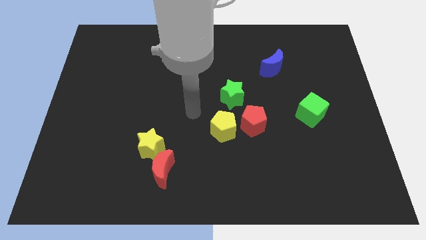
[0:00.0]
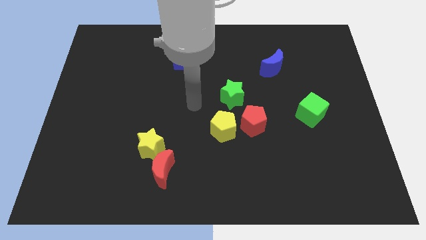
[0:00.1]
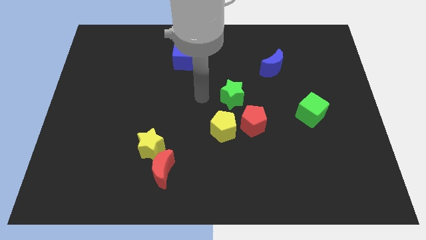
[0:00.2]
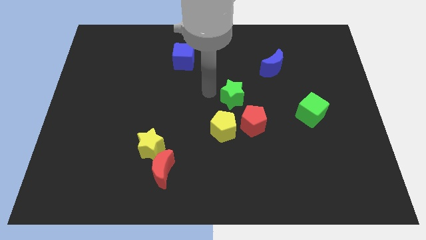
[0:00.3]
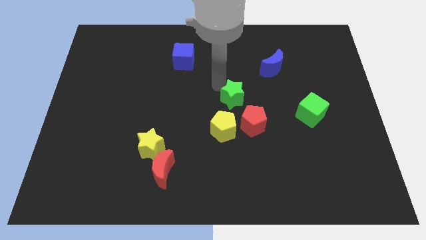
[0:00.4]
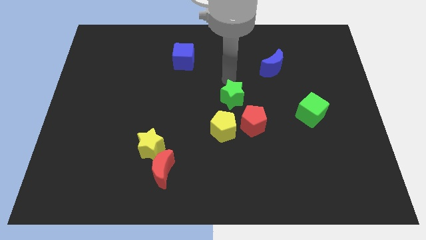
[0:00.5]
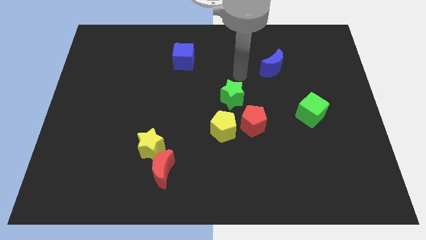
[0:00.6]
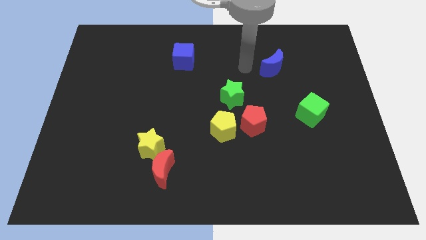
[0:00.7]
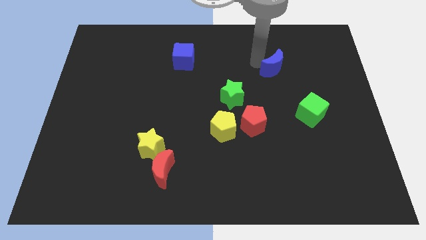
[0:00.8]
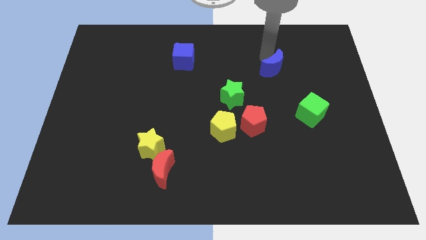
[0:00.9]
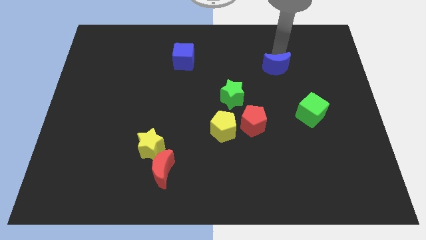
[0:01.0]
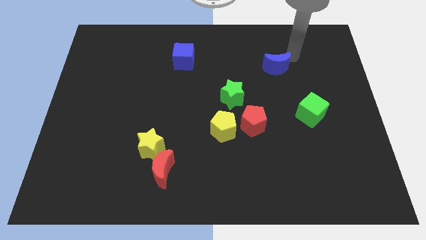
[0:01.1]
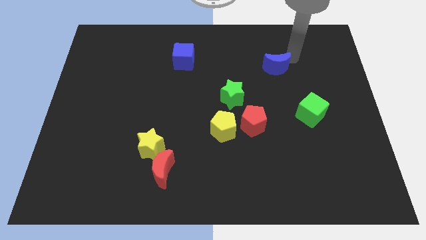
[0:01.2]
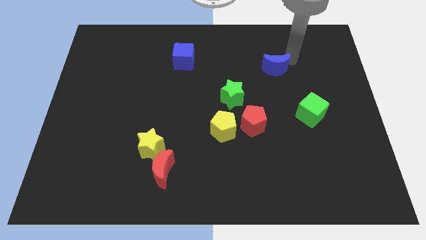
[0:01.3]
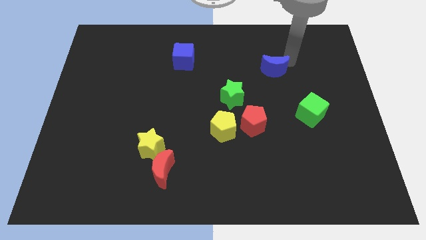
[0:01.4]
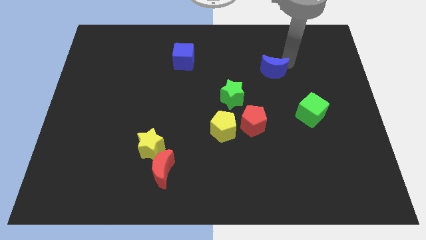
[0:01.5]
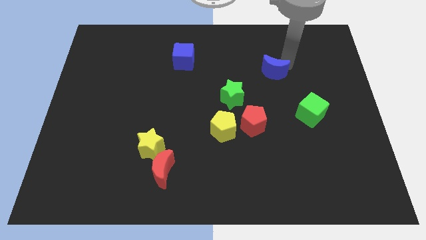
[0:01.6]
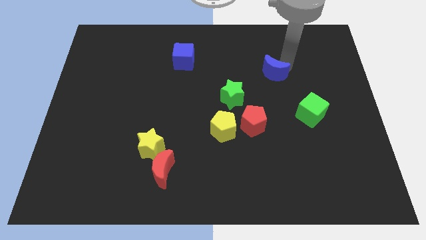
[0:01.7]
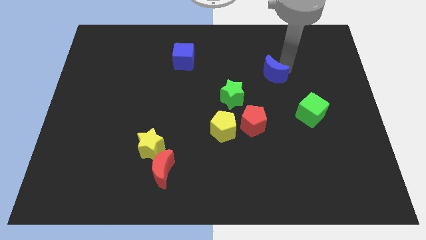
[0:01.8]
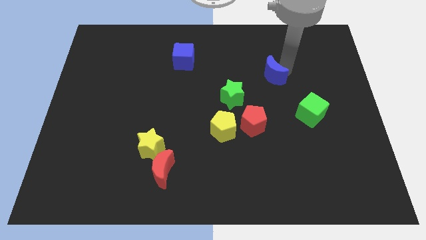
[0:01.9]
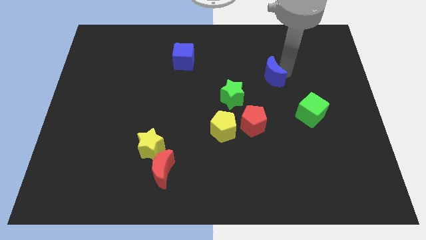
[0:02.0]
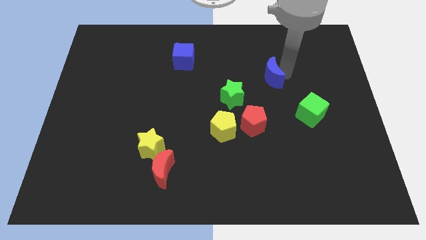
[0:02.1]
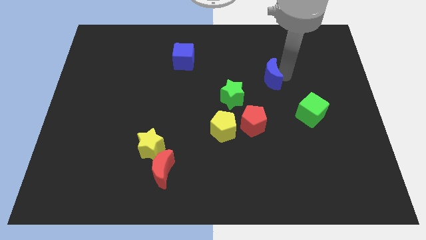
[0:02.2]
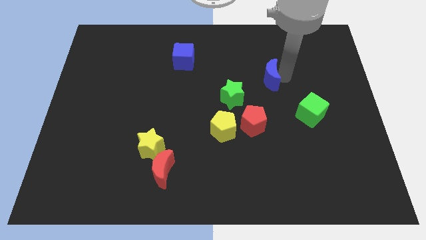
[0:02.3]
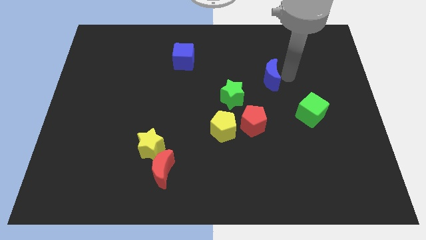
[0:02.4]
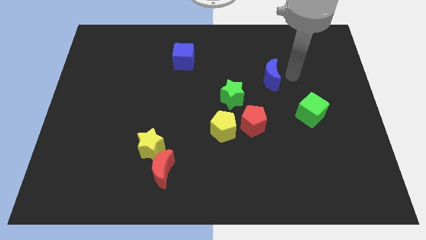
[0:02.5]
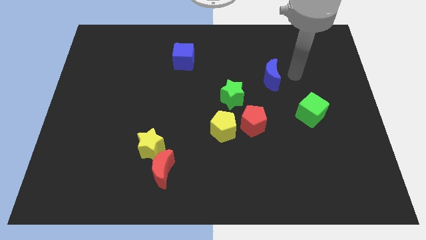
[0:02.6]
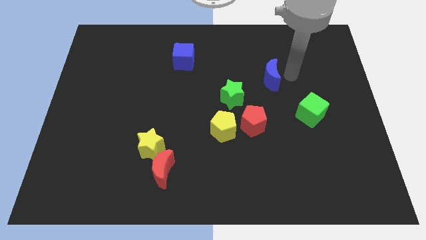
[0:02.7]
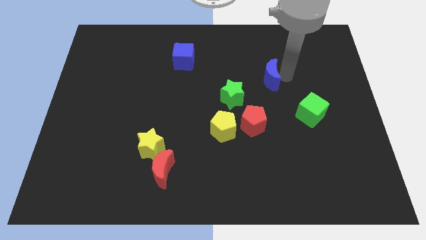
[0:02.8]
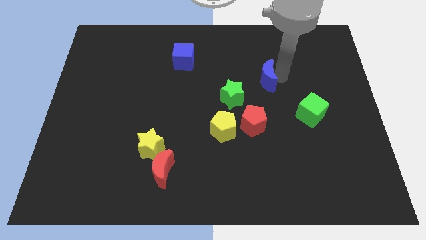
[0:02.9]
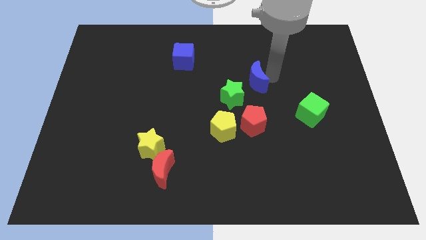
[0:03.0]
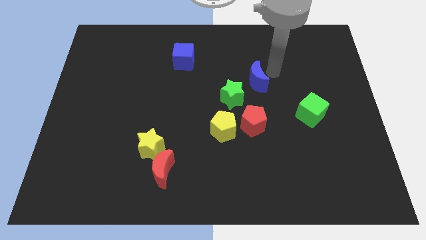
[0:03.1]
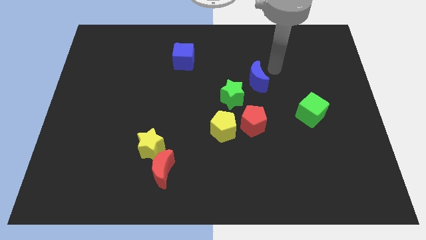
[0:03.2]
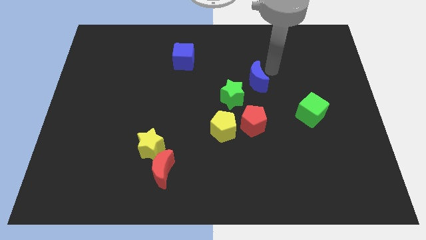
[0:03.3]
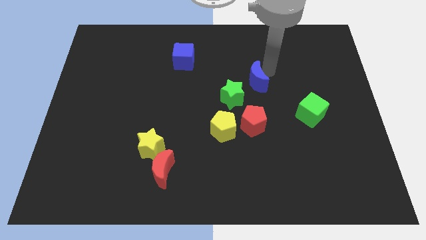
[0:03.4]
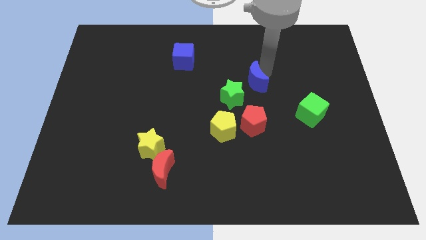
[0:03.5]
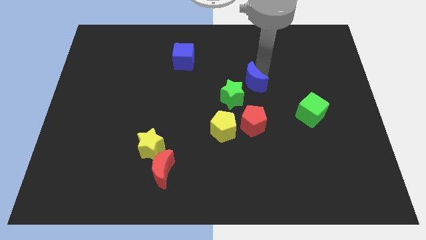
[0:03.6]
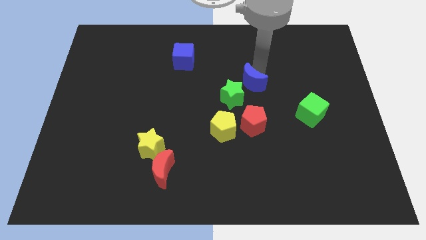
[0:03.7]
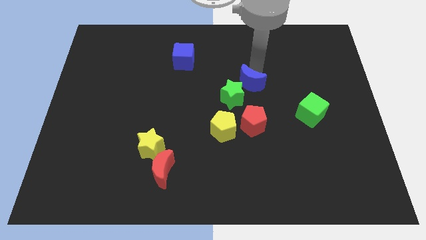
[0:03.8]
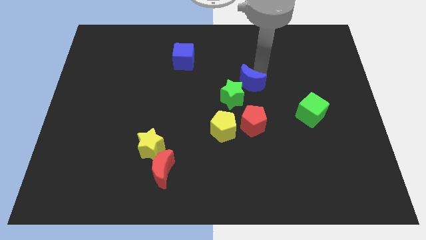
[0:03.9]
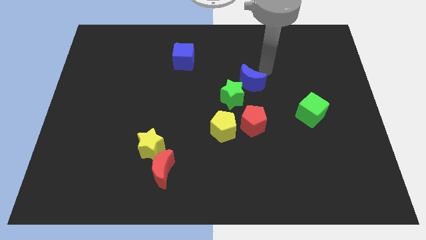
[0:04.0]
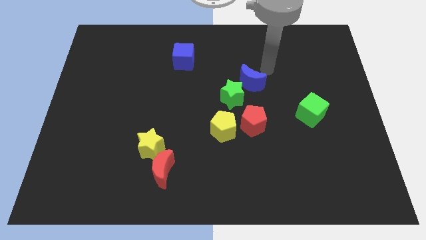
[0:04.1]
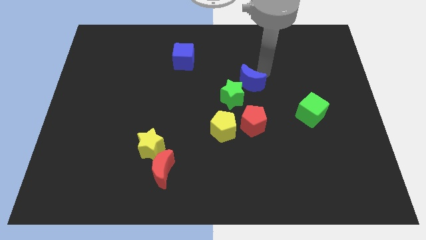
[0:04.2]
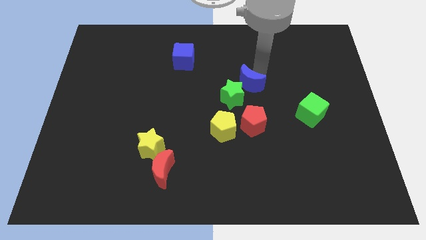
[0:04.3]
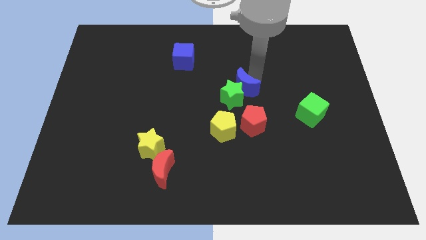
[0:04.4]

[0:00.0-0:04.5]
push the blue moon towards the green star

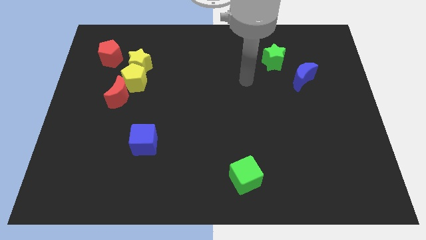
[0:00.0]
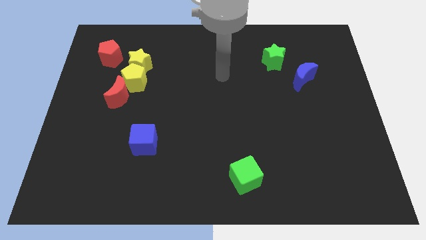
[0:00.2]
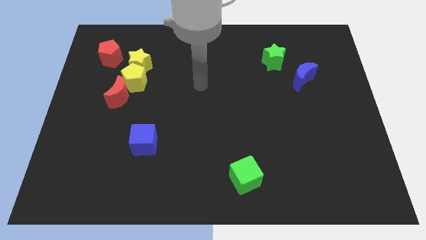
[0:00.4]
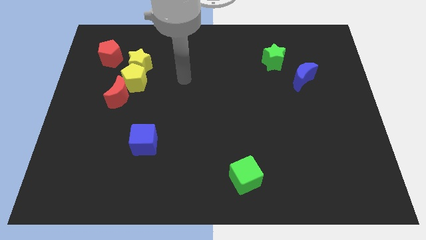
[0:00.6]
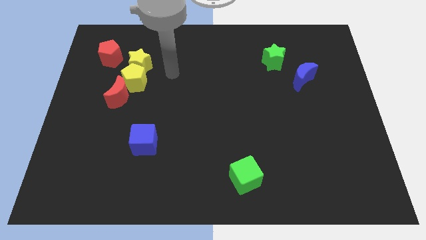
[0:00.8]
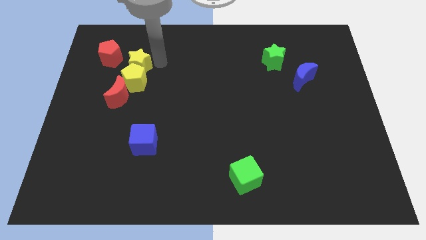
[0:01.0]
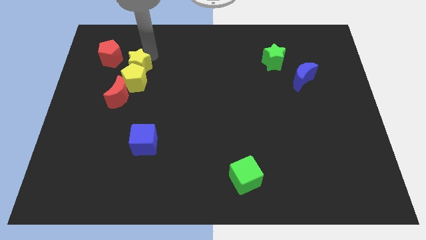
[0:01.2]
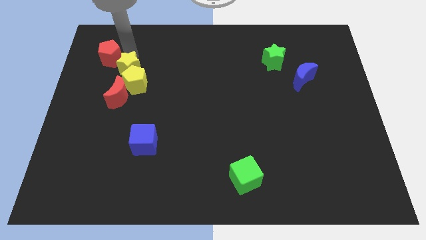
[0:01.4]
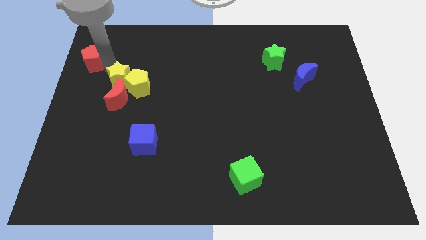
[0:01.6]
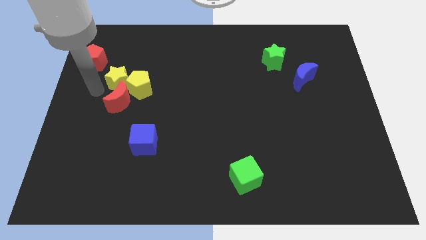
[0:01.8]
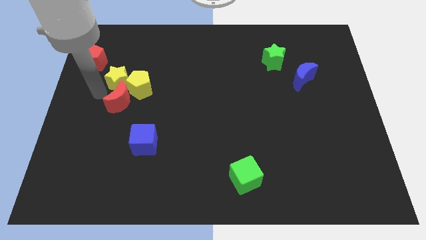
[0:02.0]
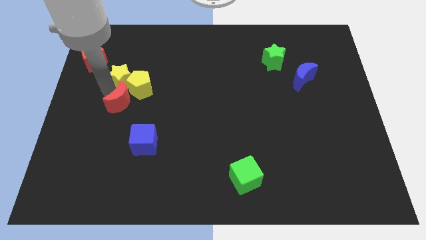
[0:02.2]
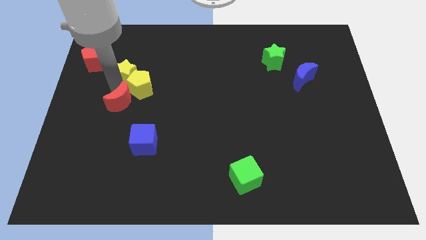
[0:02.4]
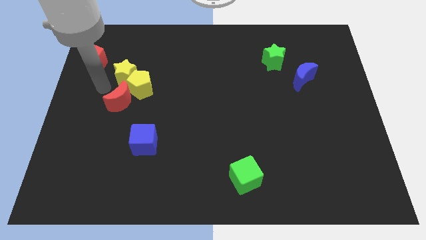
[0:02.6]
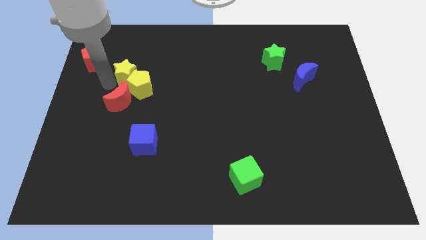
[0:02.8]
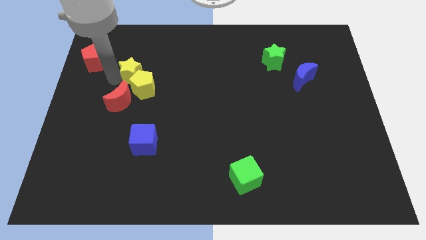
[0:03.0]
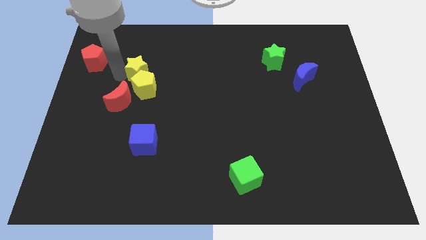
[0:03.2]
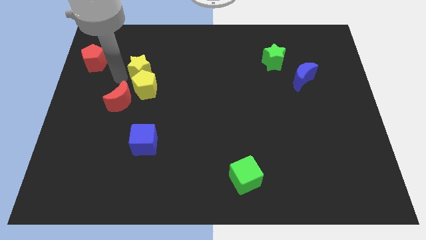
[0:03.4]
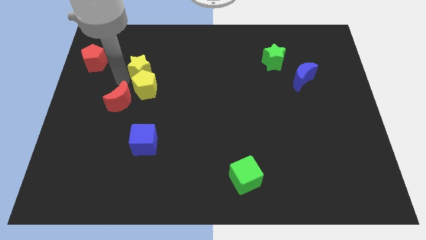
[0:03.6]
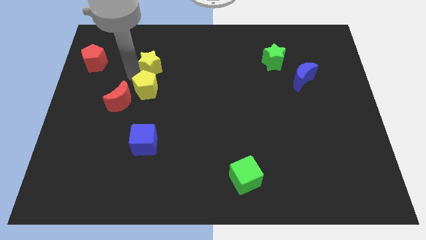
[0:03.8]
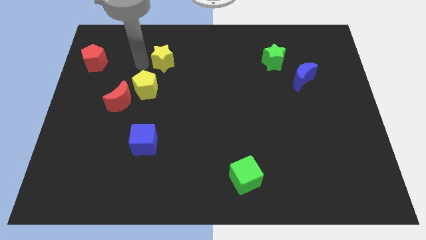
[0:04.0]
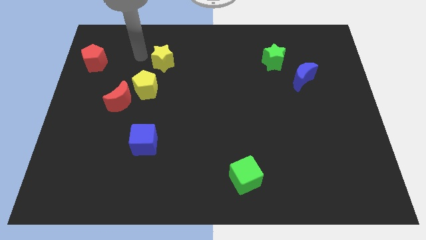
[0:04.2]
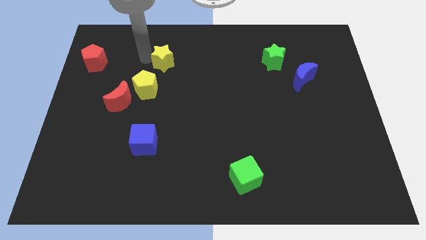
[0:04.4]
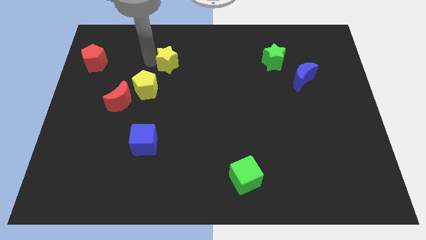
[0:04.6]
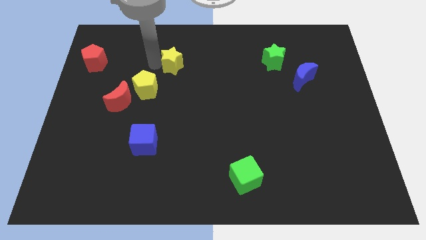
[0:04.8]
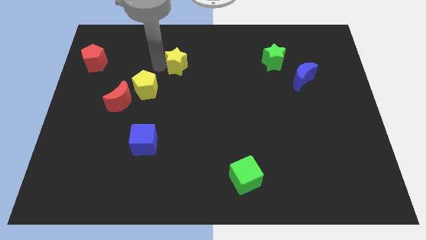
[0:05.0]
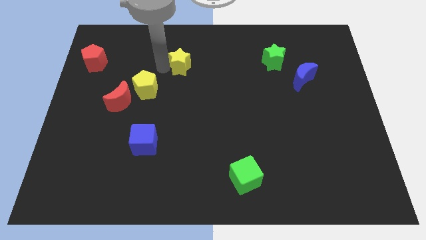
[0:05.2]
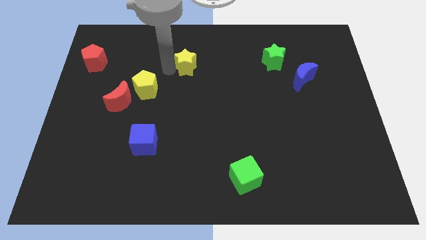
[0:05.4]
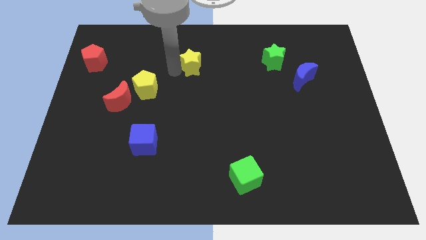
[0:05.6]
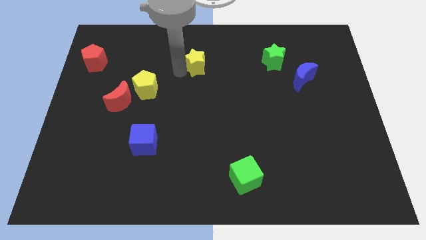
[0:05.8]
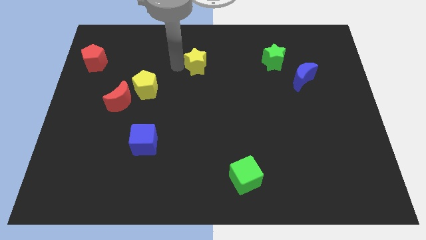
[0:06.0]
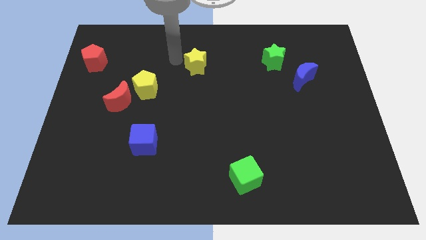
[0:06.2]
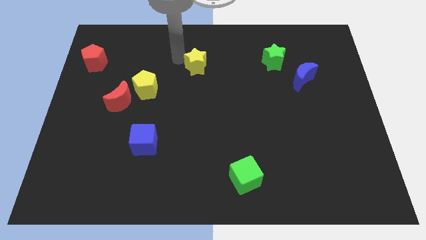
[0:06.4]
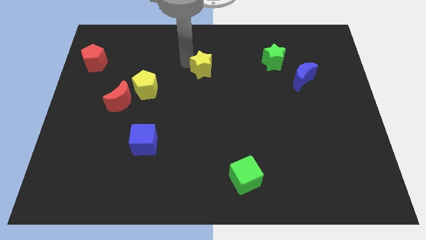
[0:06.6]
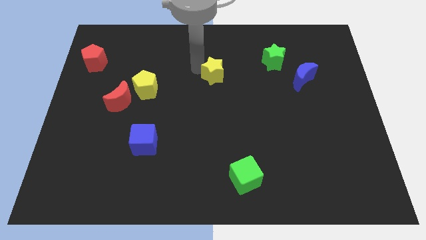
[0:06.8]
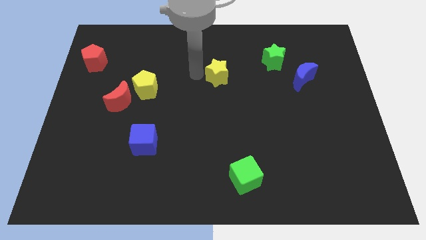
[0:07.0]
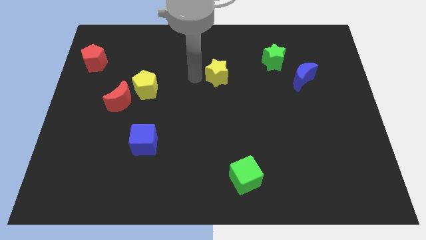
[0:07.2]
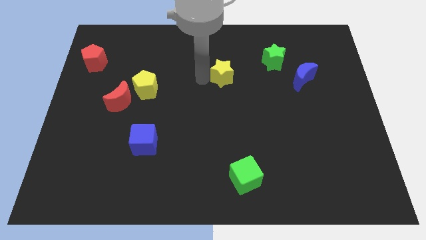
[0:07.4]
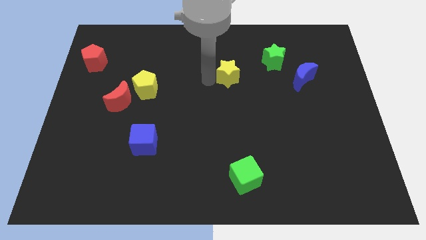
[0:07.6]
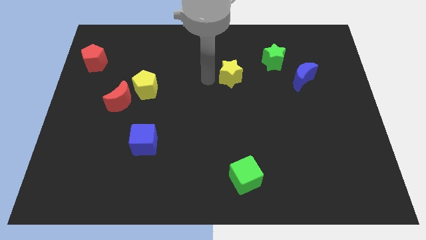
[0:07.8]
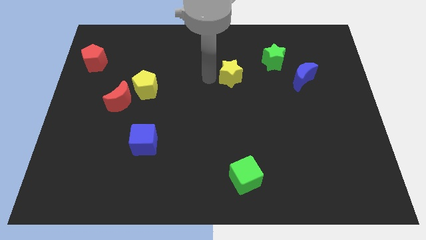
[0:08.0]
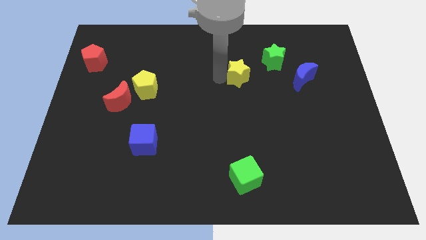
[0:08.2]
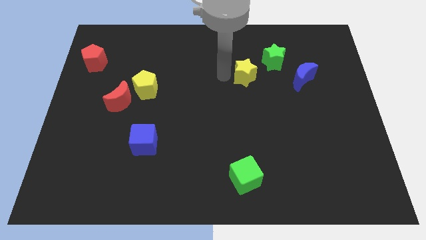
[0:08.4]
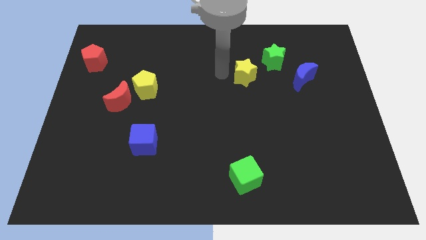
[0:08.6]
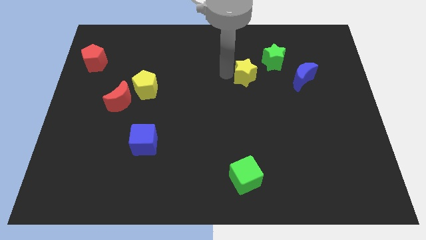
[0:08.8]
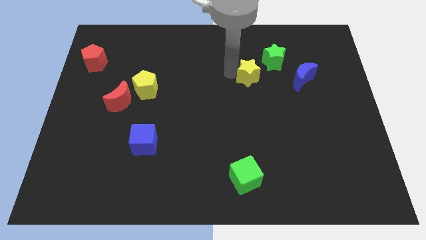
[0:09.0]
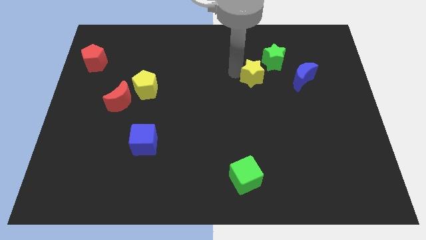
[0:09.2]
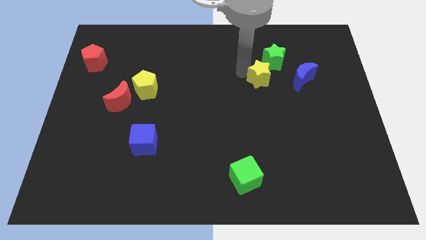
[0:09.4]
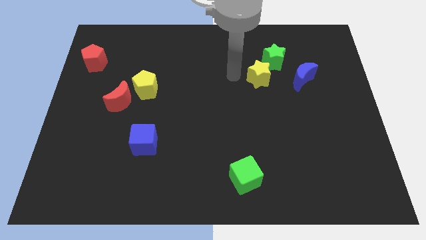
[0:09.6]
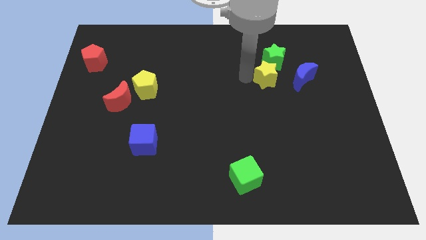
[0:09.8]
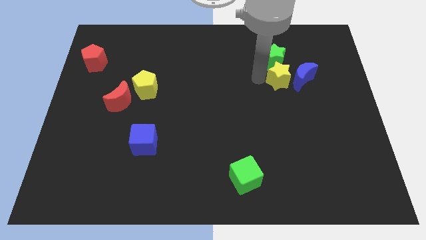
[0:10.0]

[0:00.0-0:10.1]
put the yellow star close to the blue moon
